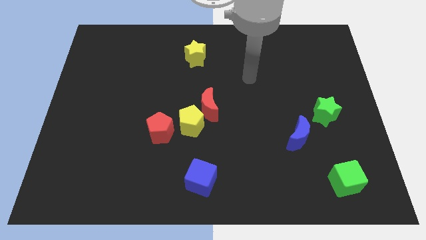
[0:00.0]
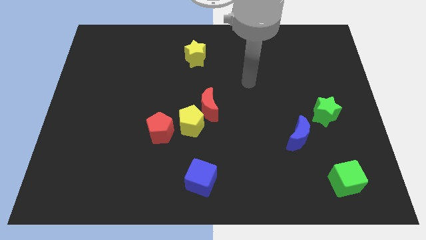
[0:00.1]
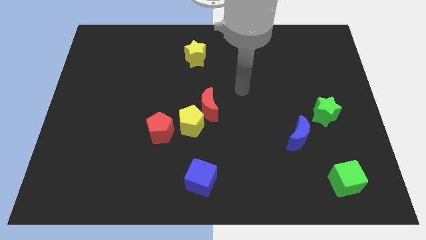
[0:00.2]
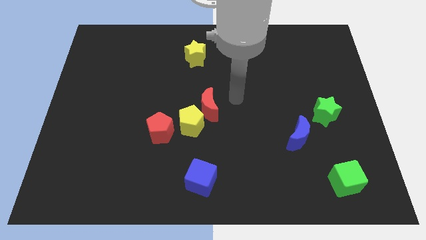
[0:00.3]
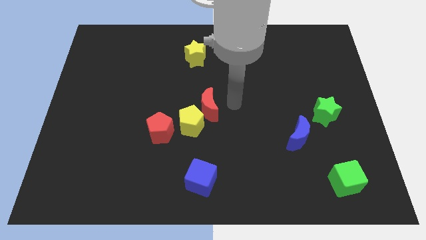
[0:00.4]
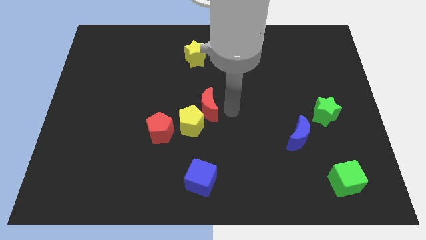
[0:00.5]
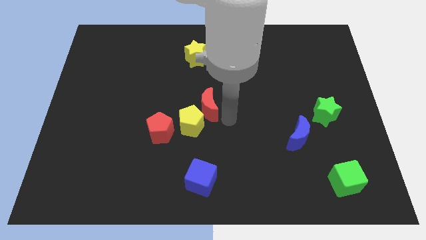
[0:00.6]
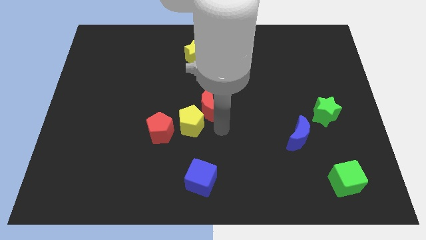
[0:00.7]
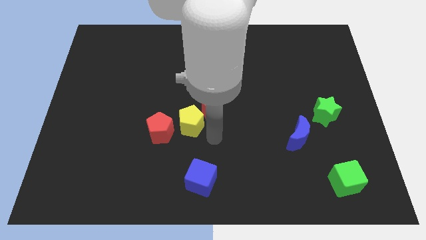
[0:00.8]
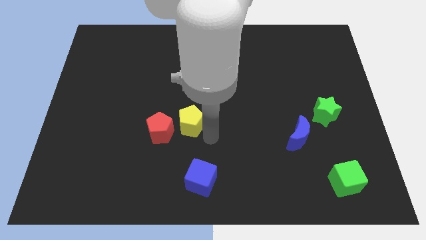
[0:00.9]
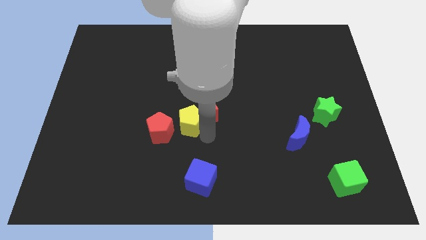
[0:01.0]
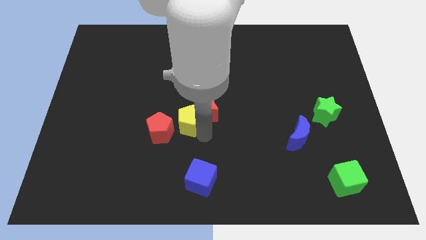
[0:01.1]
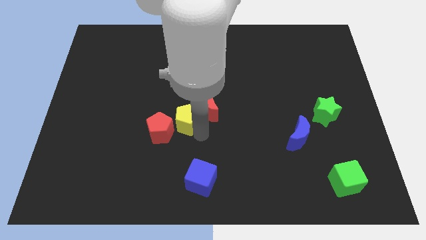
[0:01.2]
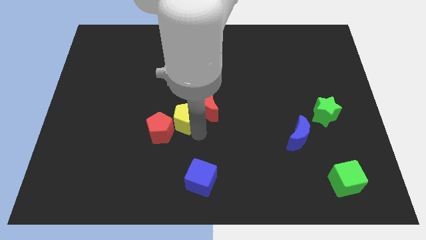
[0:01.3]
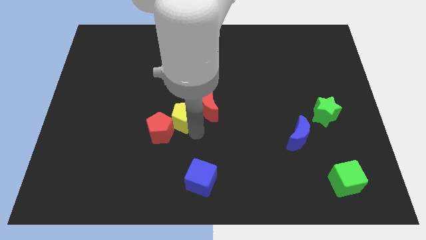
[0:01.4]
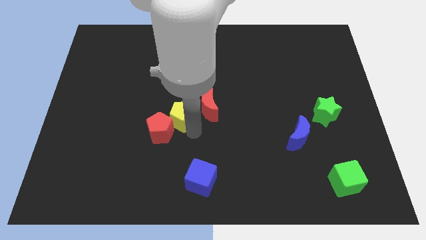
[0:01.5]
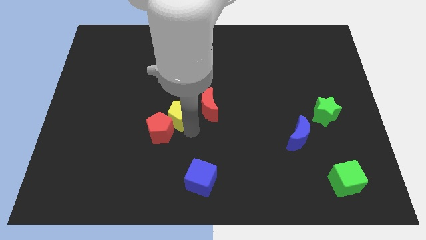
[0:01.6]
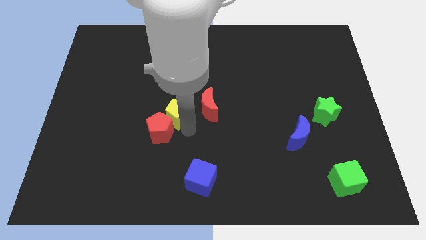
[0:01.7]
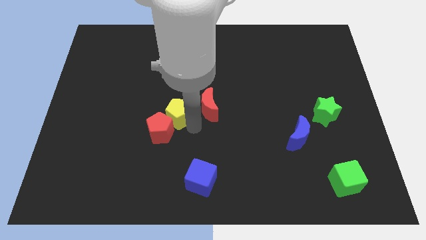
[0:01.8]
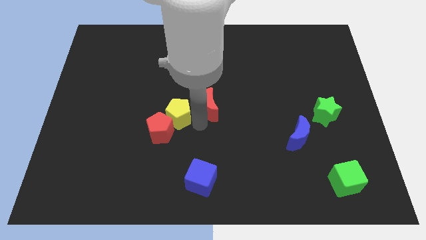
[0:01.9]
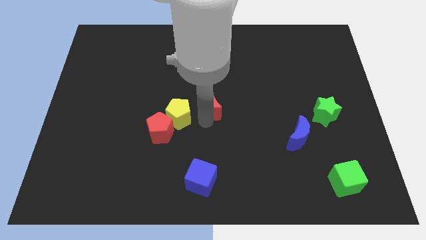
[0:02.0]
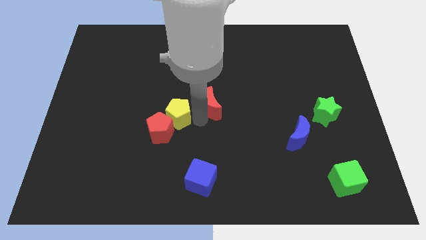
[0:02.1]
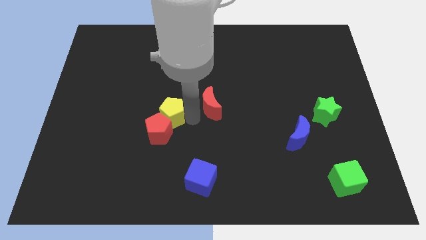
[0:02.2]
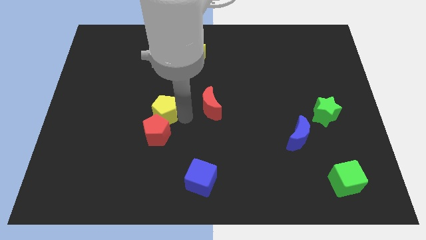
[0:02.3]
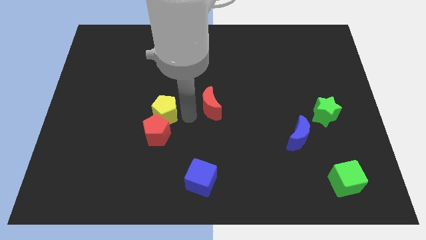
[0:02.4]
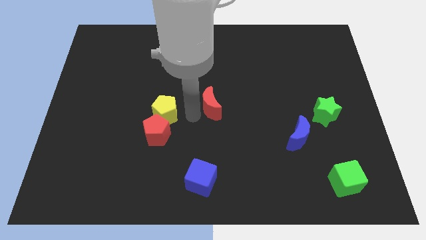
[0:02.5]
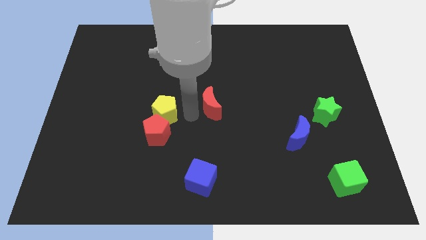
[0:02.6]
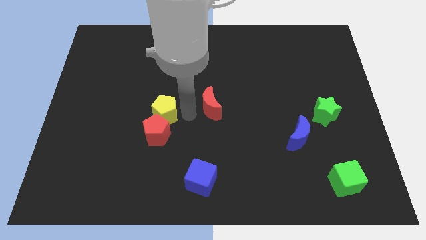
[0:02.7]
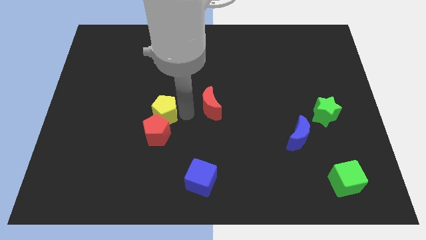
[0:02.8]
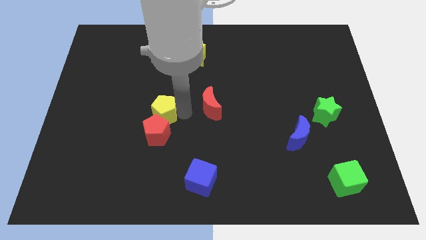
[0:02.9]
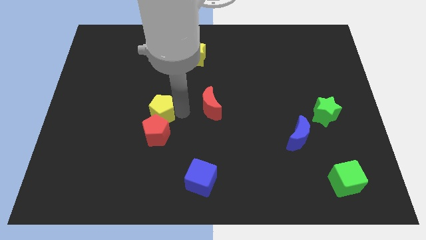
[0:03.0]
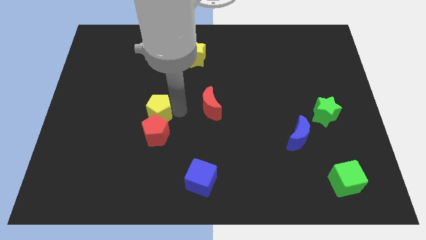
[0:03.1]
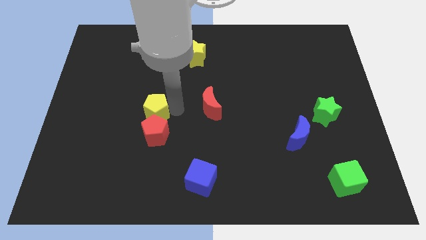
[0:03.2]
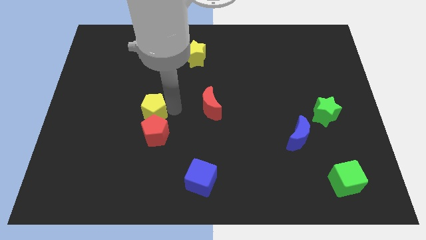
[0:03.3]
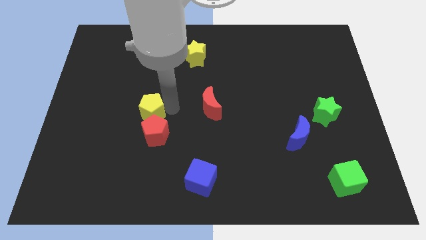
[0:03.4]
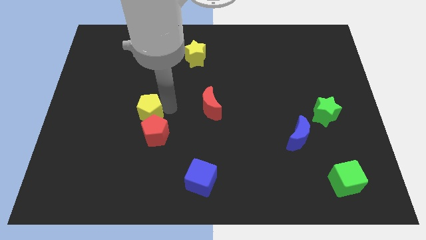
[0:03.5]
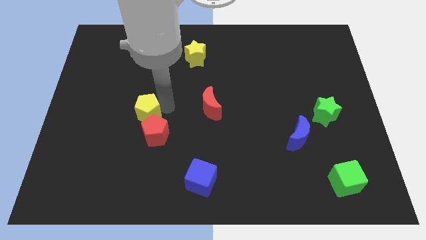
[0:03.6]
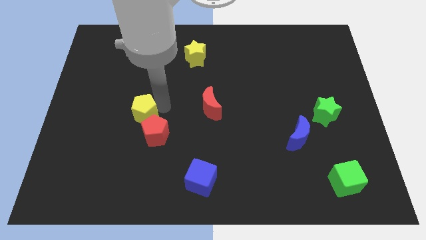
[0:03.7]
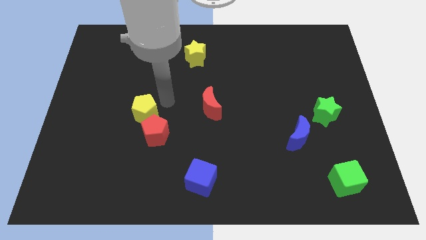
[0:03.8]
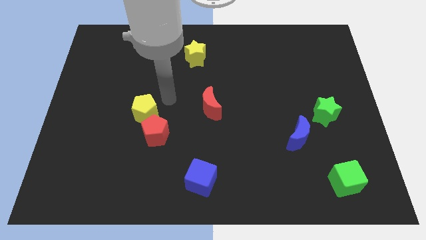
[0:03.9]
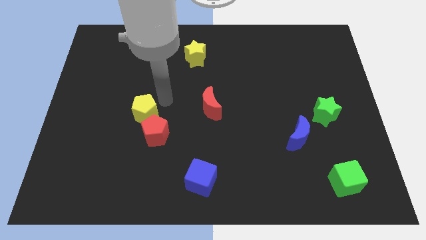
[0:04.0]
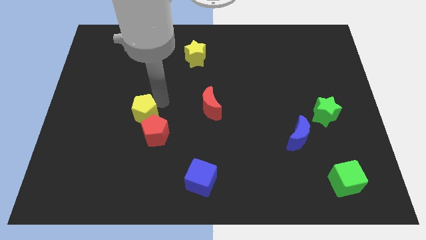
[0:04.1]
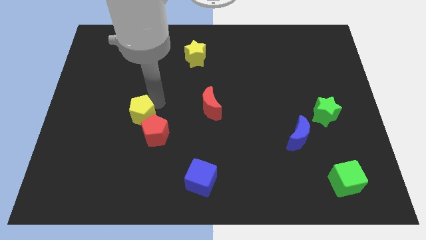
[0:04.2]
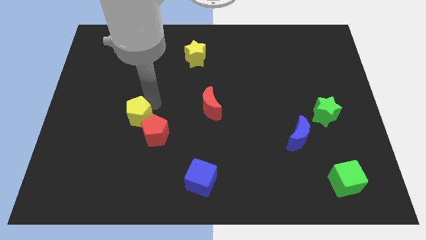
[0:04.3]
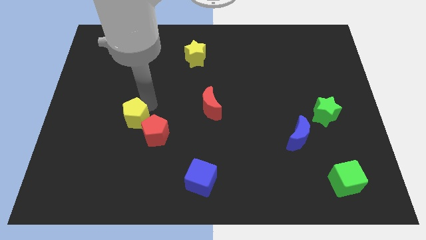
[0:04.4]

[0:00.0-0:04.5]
put the yellow pentagon to the left of the red pentagon

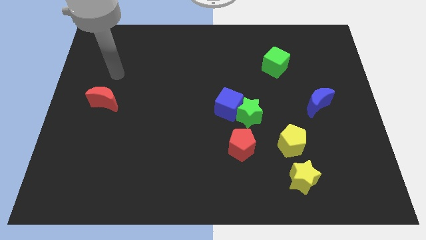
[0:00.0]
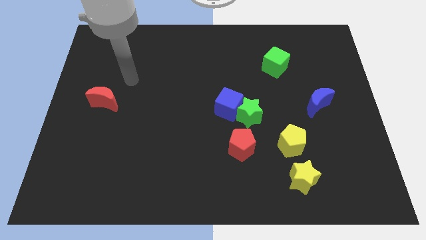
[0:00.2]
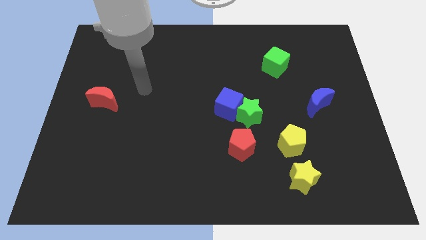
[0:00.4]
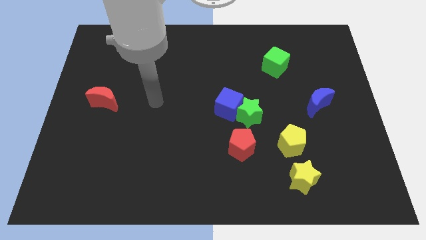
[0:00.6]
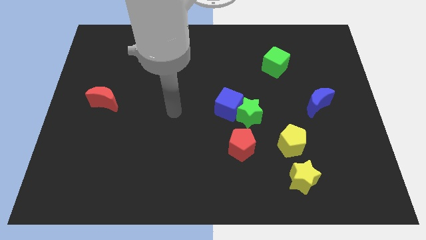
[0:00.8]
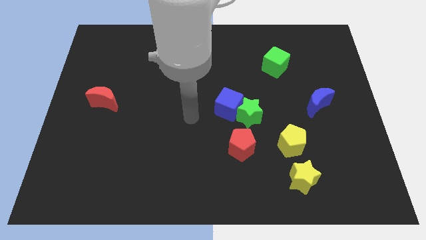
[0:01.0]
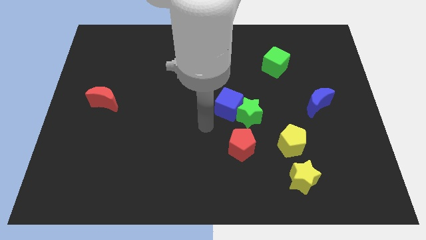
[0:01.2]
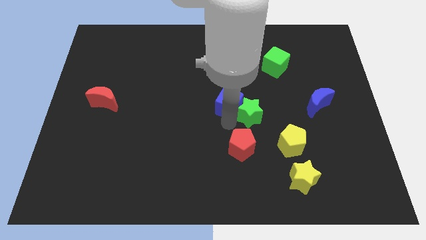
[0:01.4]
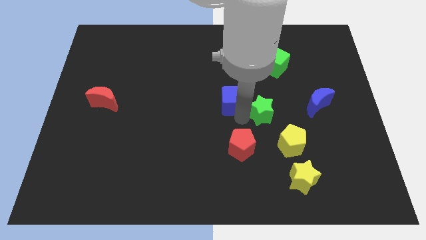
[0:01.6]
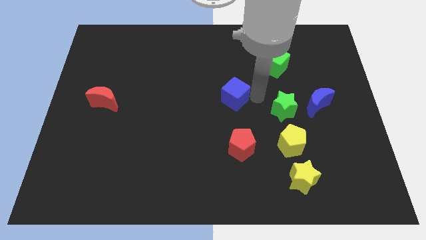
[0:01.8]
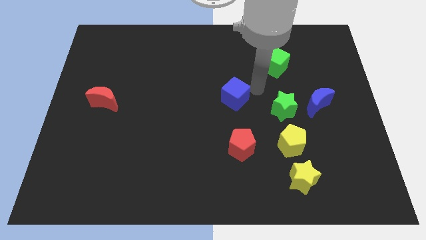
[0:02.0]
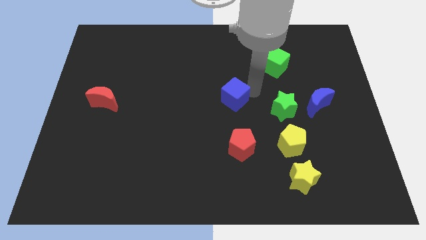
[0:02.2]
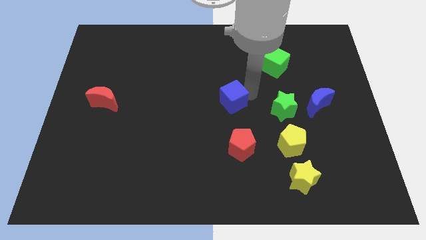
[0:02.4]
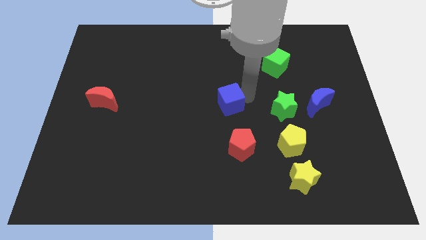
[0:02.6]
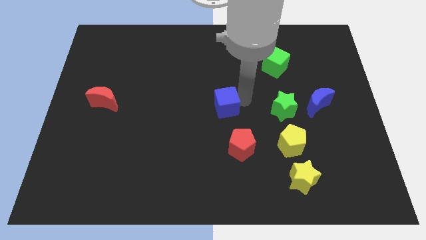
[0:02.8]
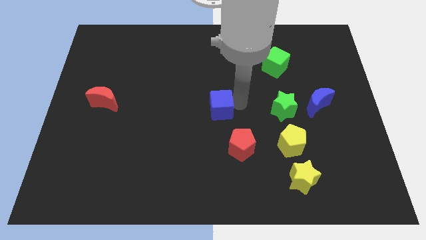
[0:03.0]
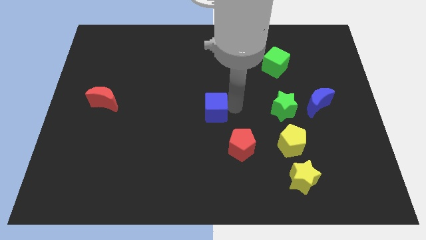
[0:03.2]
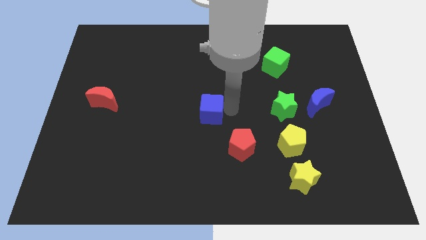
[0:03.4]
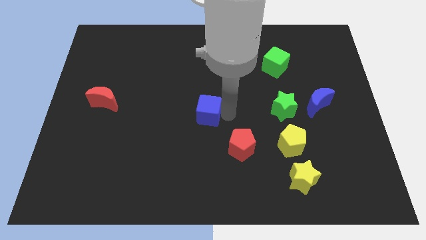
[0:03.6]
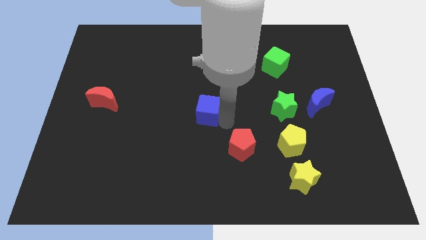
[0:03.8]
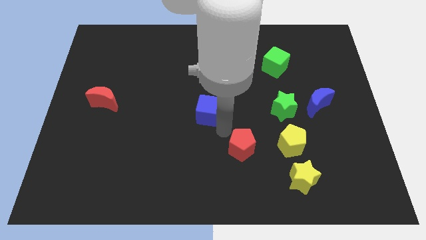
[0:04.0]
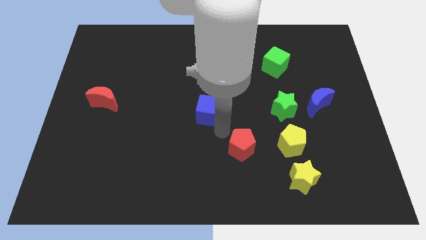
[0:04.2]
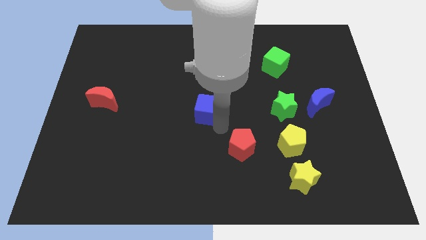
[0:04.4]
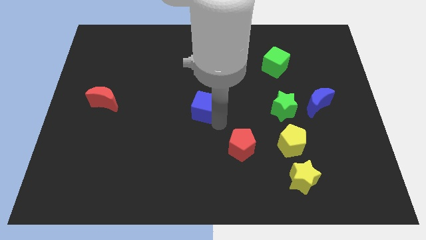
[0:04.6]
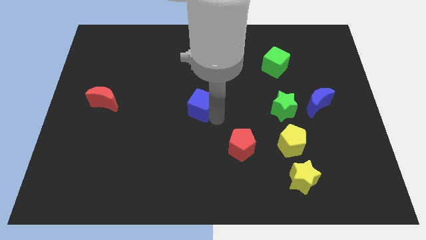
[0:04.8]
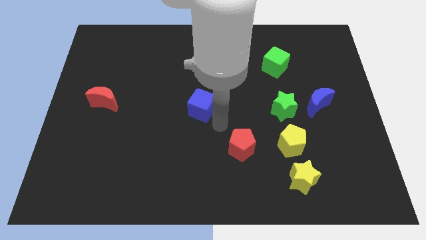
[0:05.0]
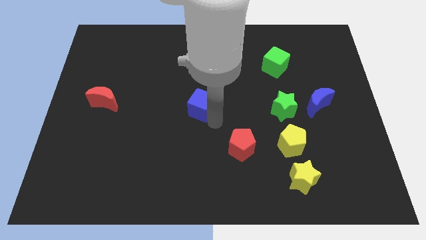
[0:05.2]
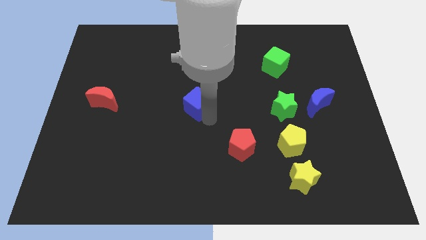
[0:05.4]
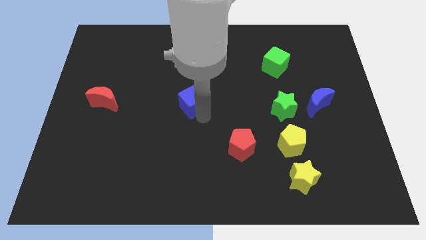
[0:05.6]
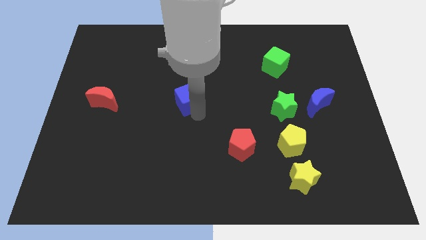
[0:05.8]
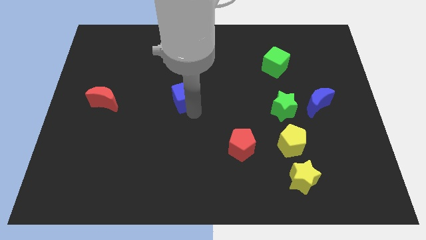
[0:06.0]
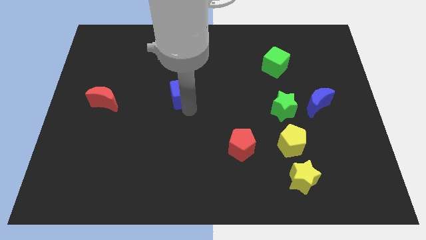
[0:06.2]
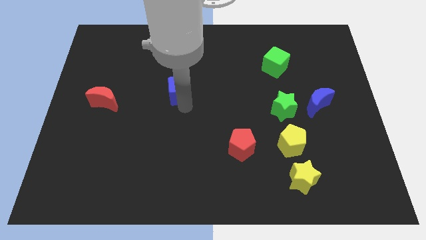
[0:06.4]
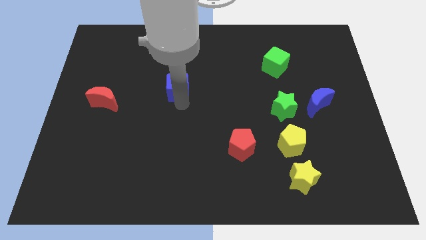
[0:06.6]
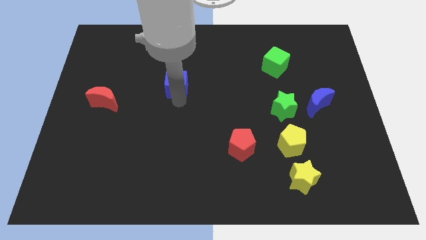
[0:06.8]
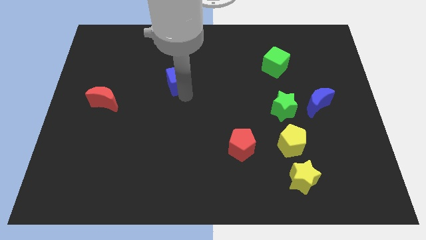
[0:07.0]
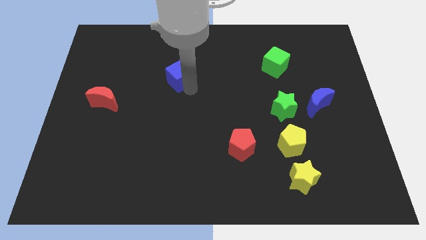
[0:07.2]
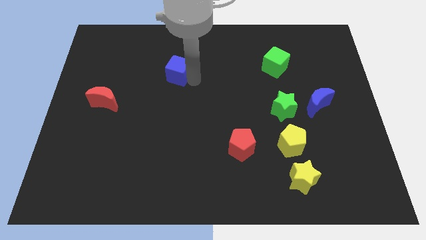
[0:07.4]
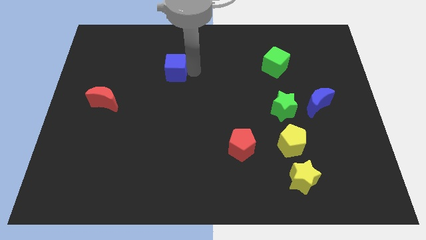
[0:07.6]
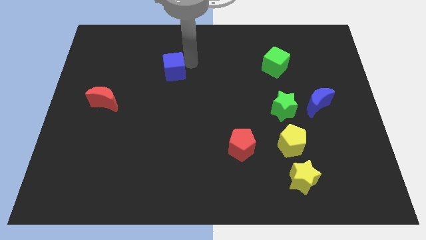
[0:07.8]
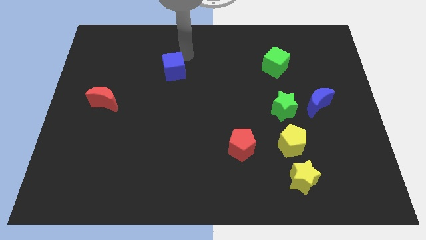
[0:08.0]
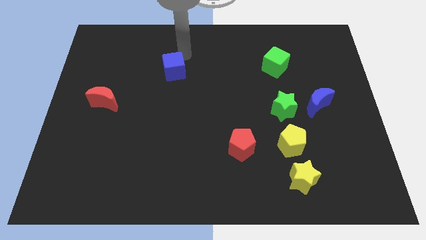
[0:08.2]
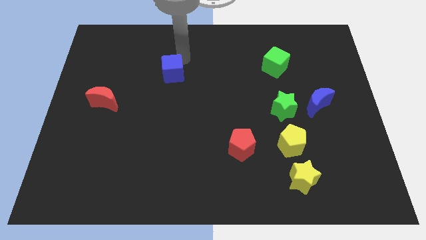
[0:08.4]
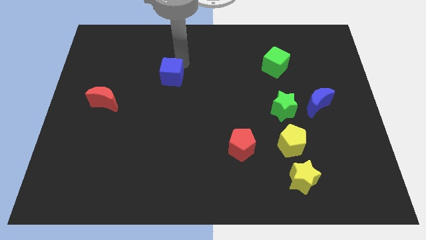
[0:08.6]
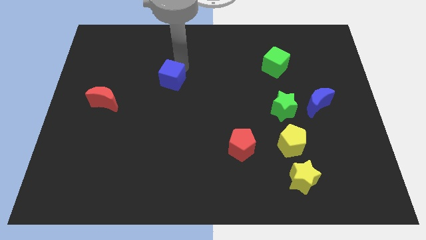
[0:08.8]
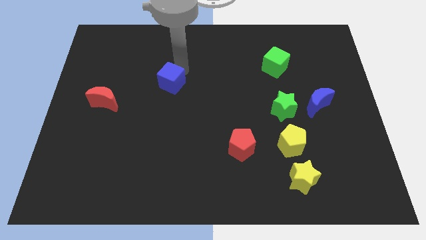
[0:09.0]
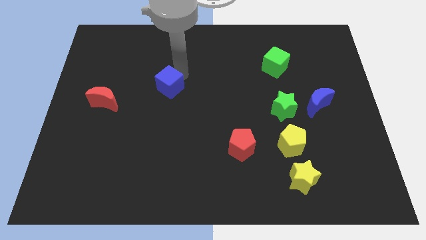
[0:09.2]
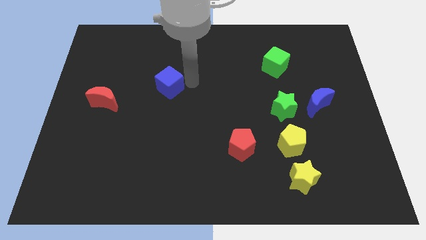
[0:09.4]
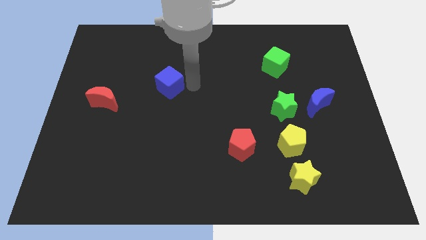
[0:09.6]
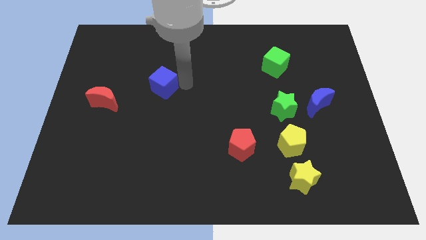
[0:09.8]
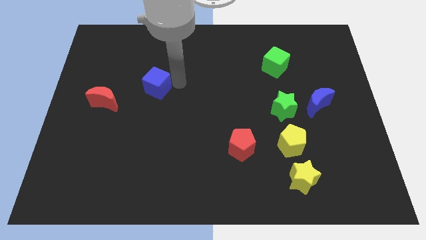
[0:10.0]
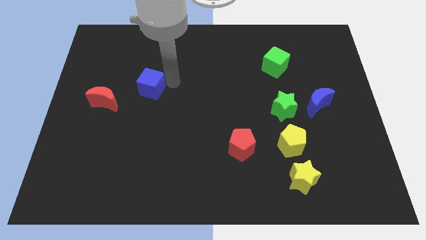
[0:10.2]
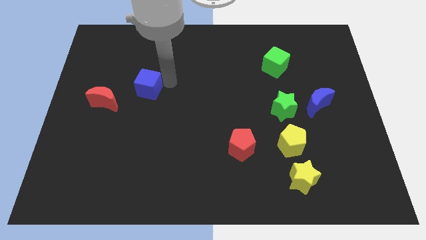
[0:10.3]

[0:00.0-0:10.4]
put the blue cube to the top right of the red moon
